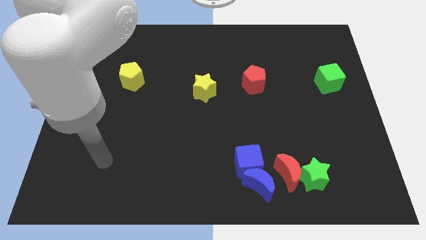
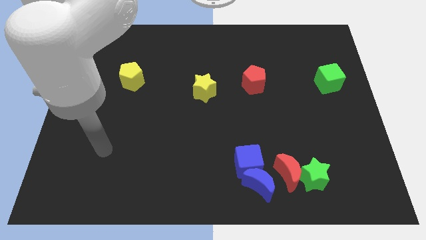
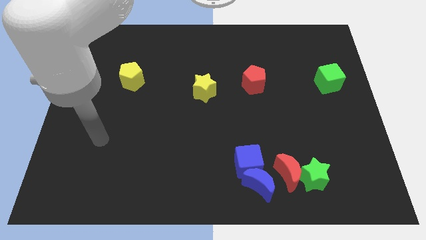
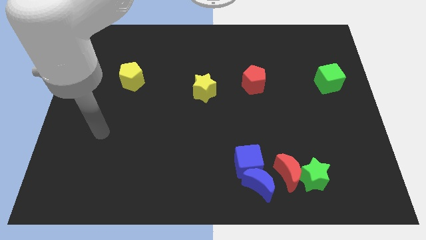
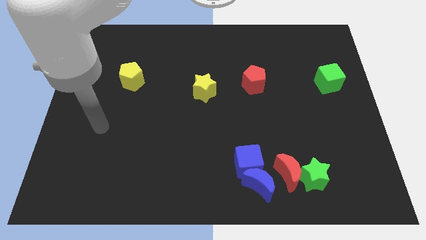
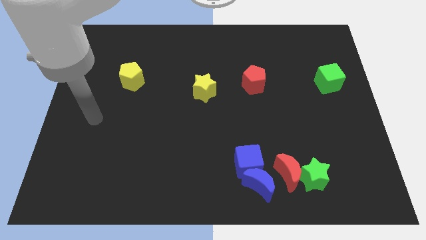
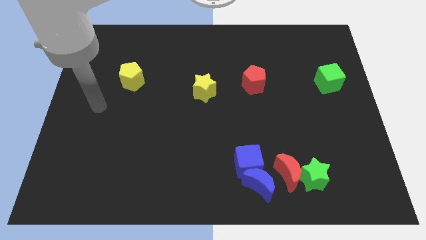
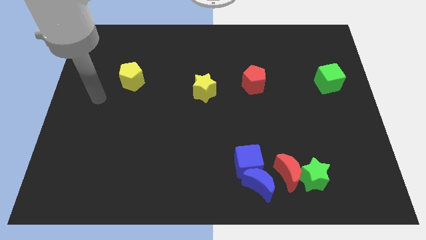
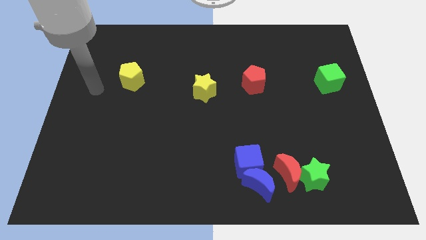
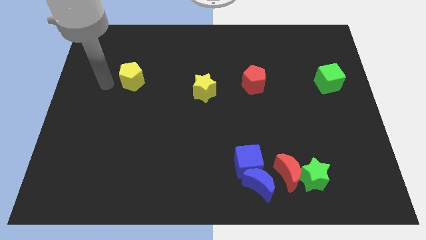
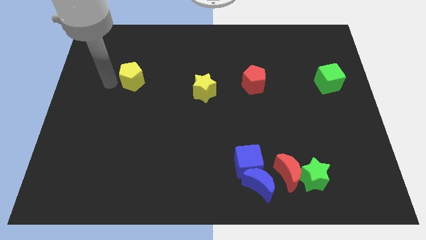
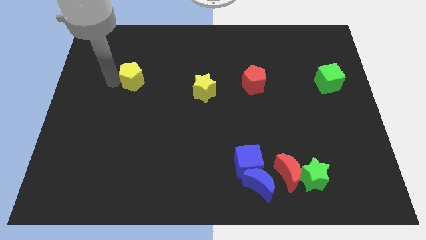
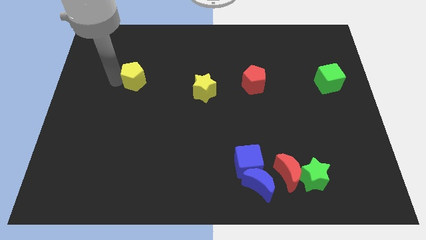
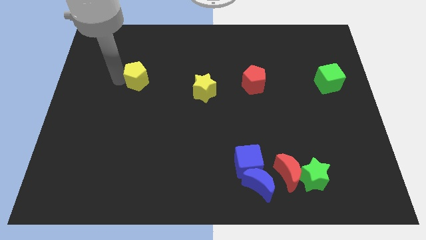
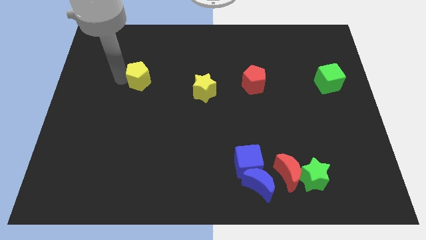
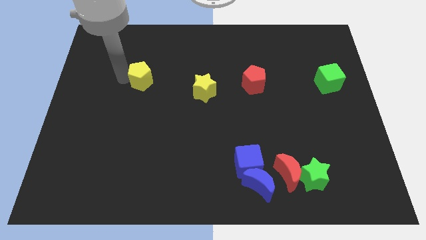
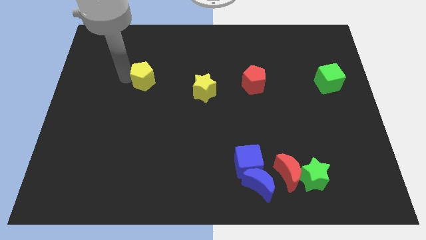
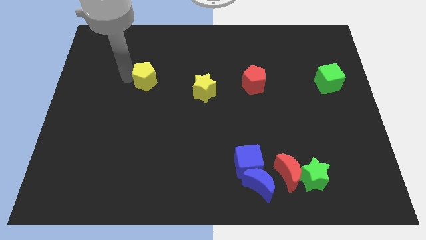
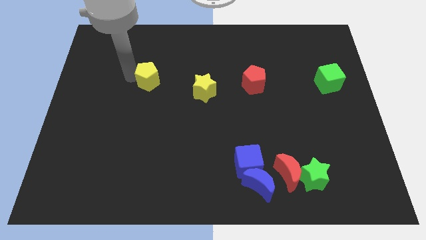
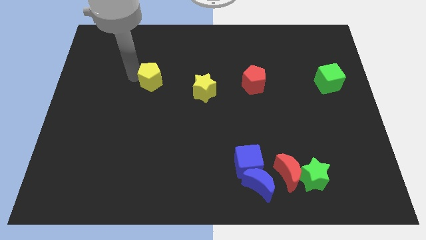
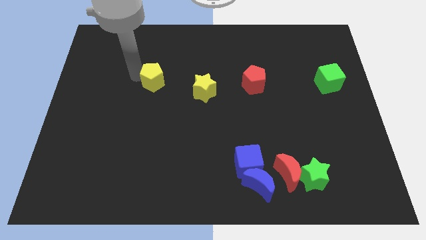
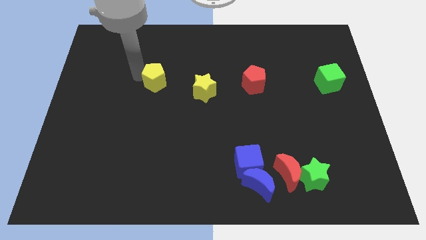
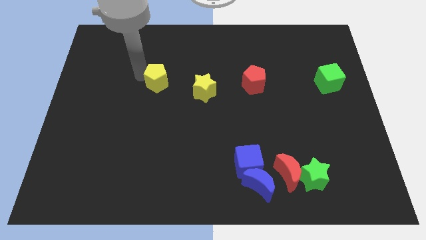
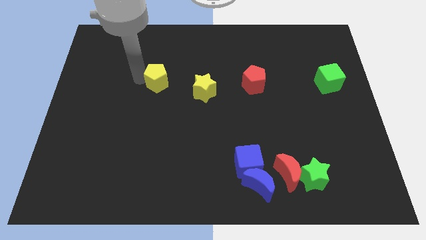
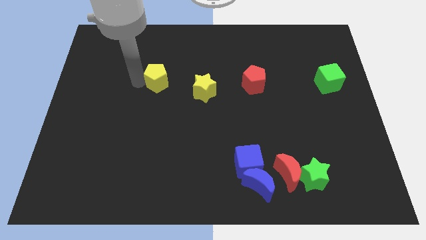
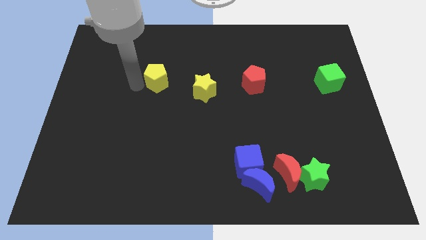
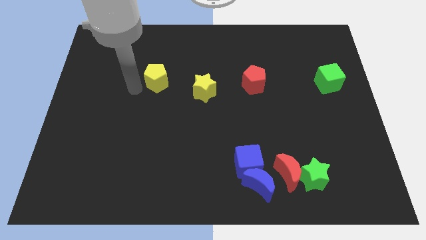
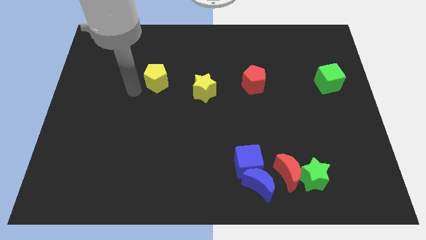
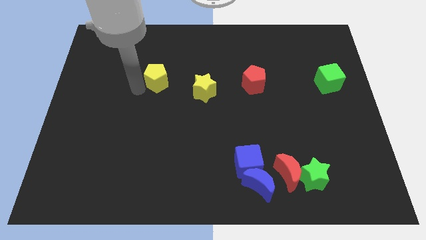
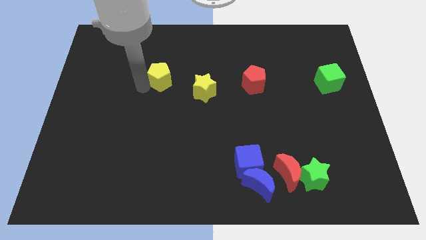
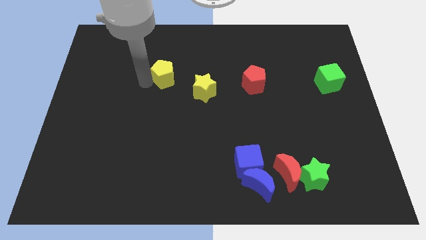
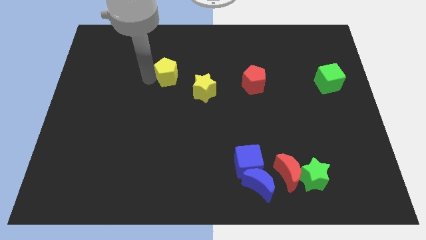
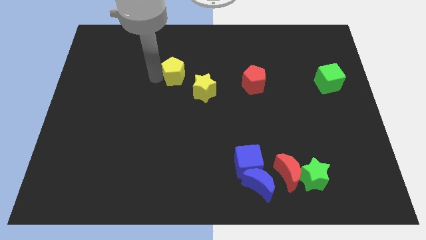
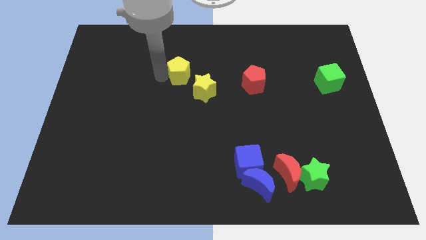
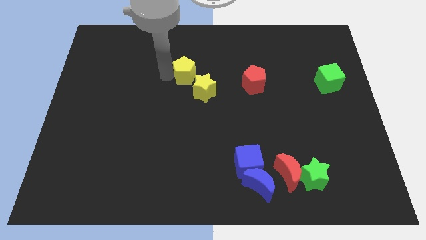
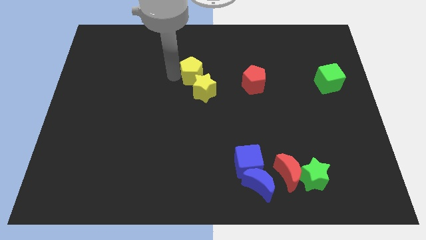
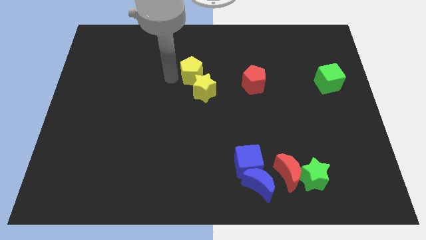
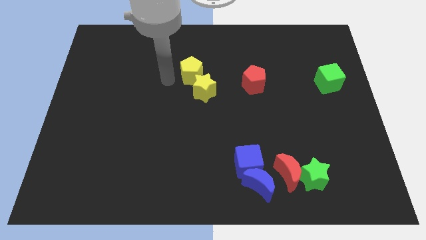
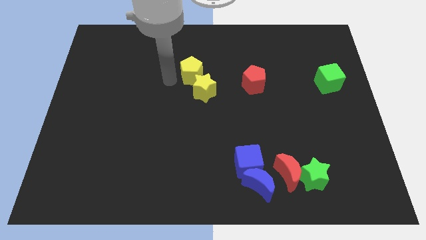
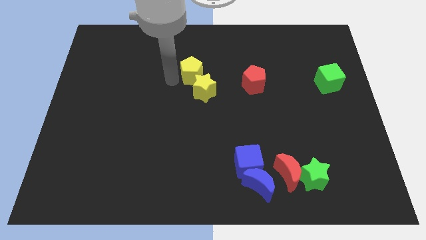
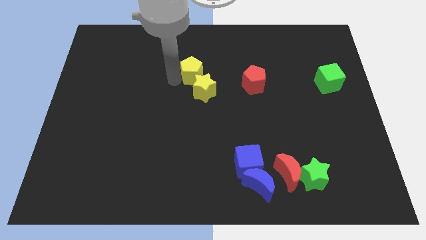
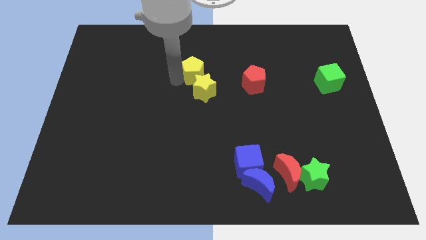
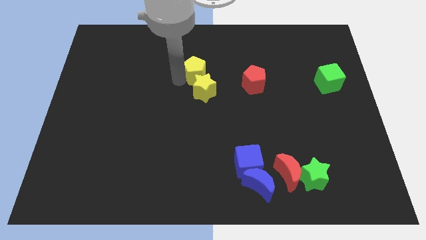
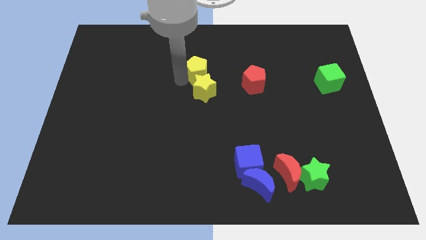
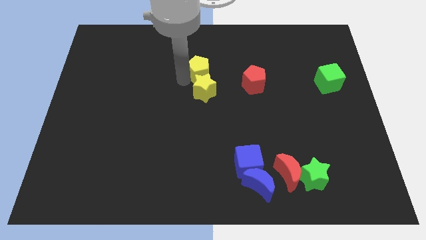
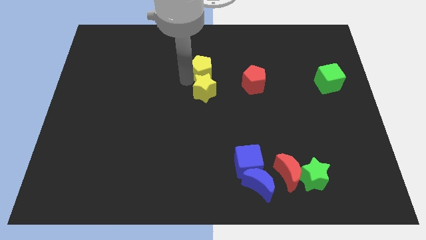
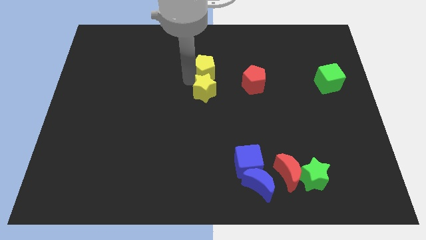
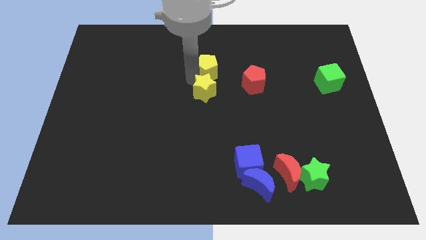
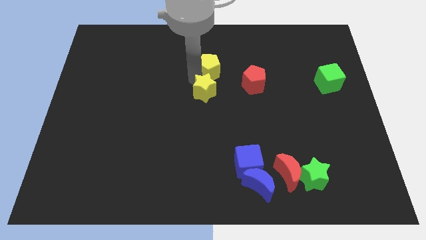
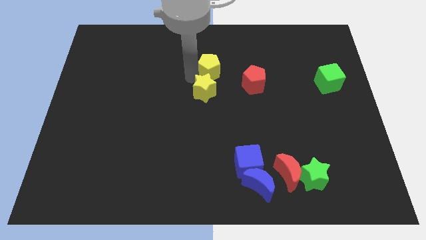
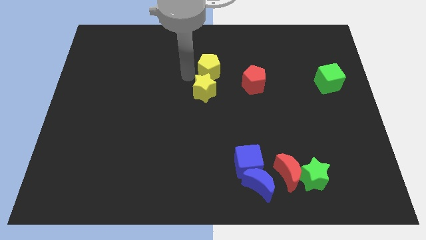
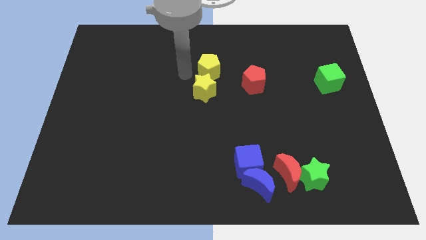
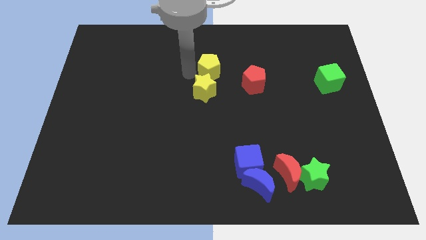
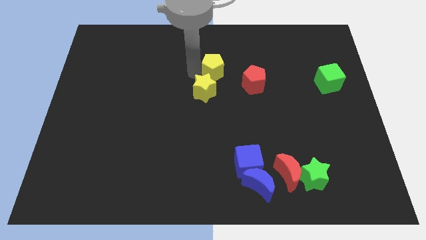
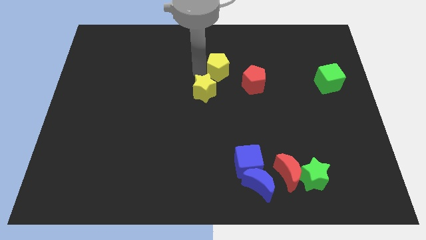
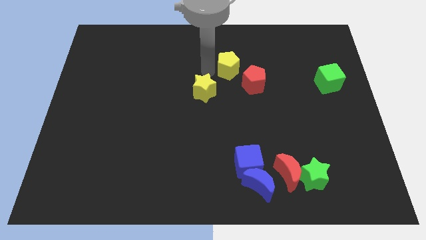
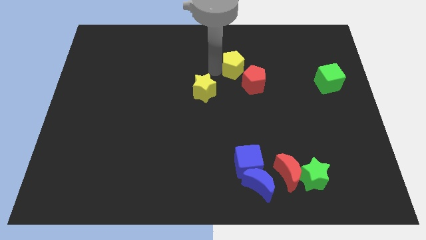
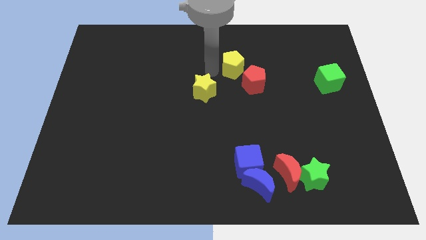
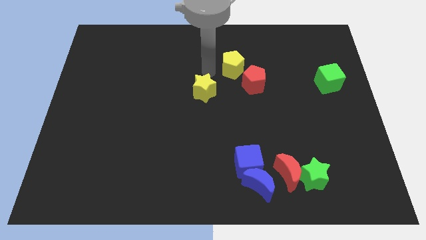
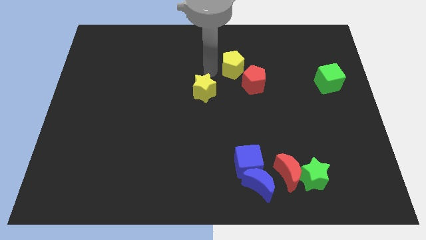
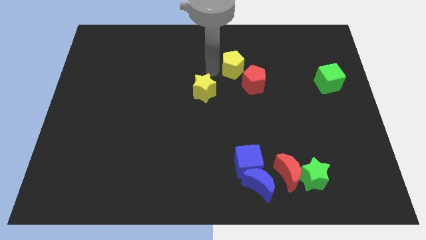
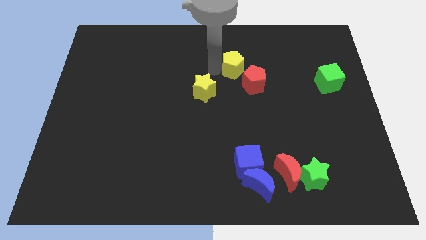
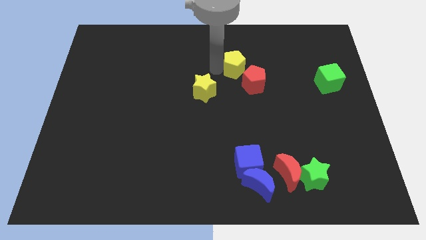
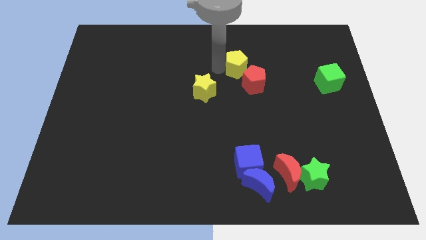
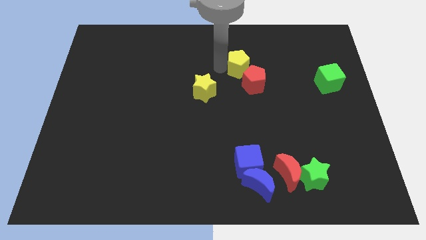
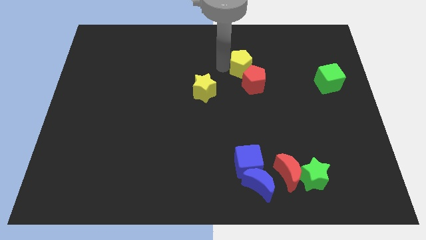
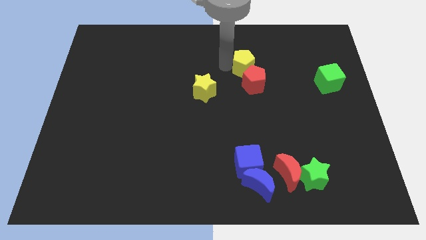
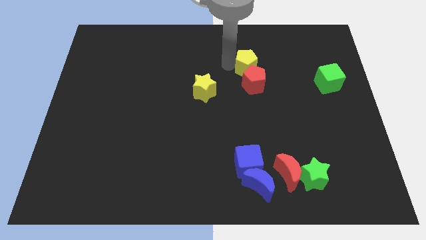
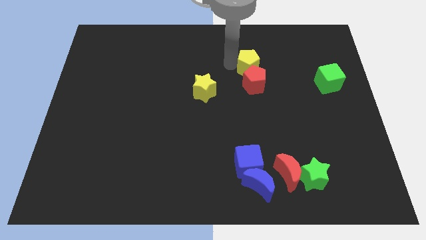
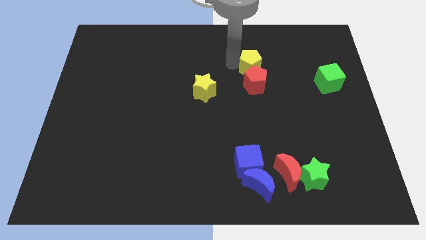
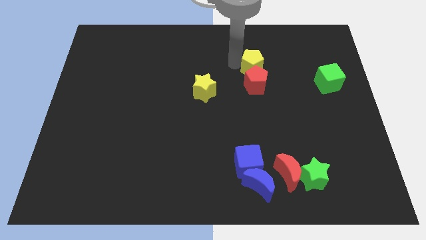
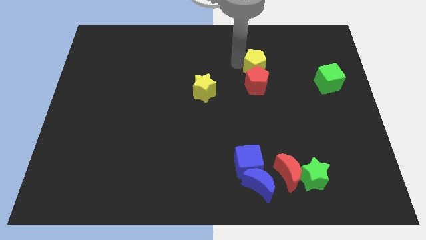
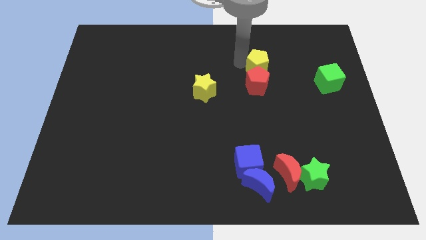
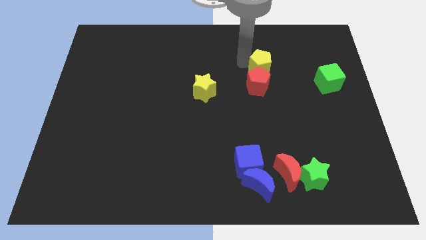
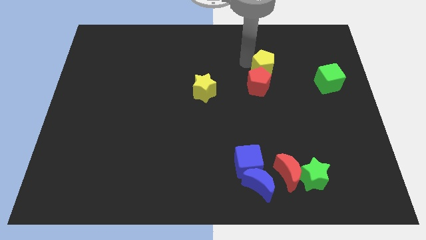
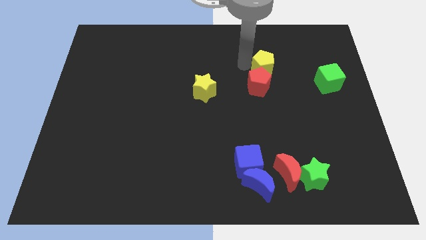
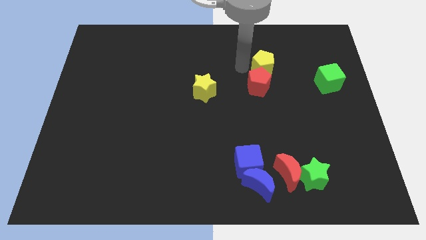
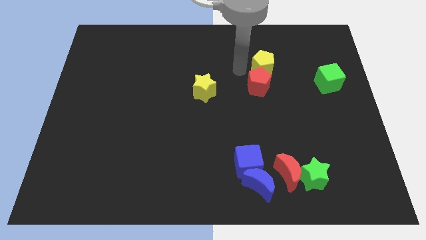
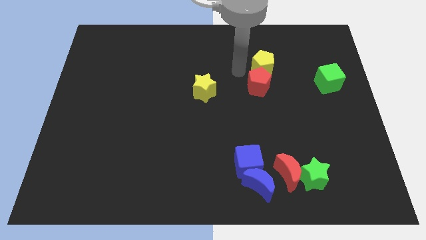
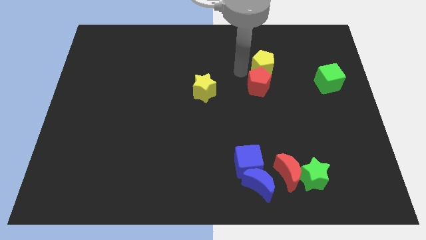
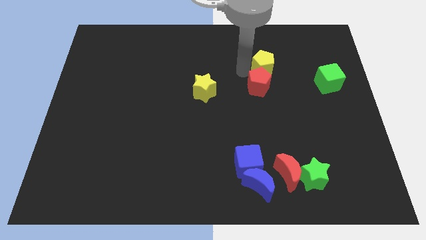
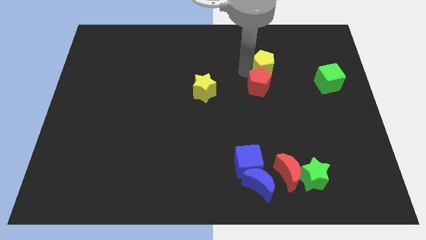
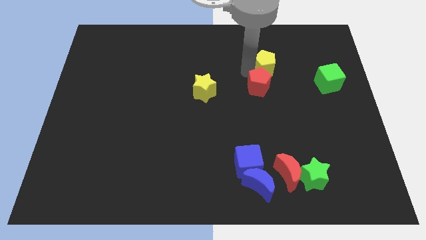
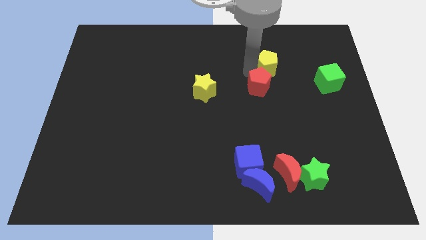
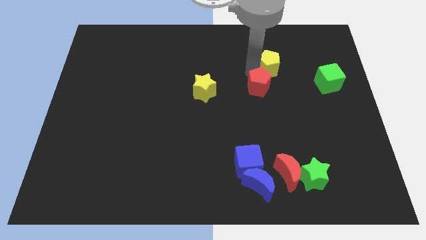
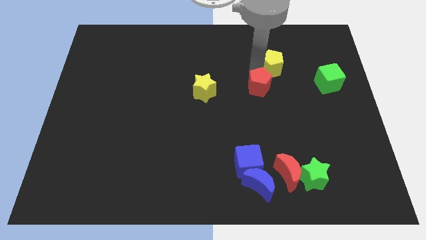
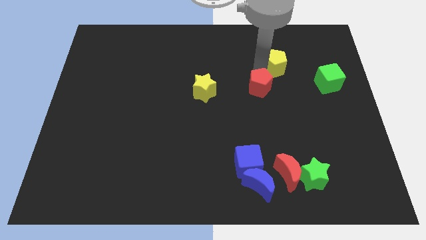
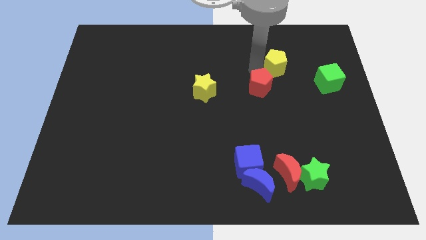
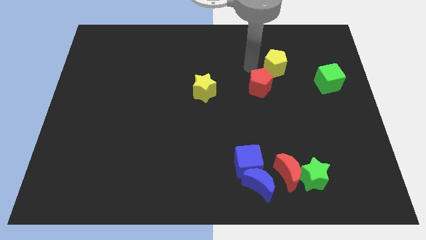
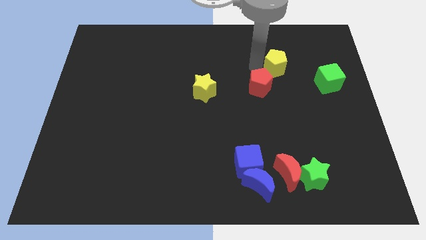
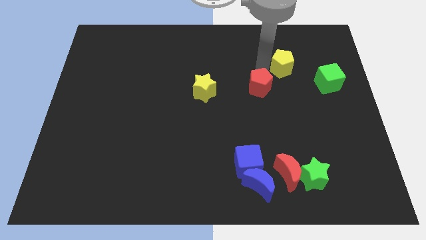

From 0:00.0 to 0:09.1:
move the yellow pentagon to the top left of the green cube
